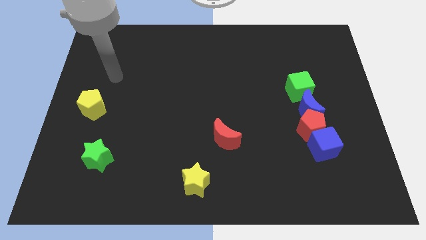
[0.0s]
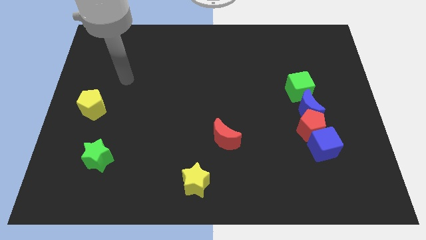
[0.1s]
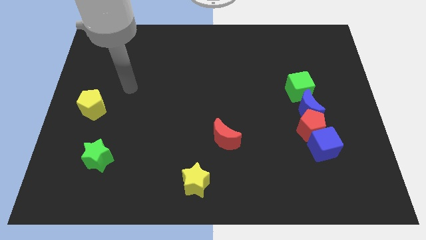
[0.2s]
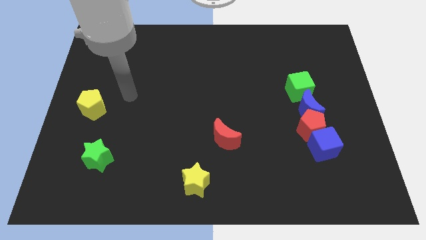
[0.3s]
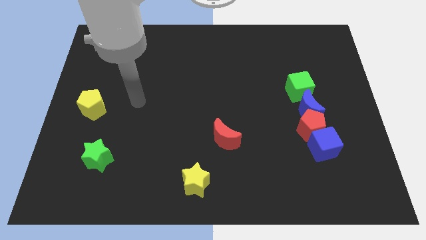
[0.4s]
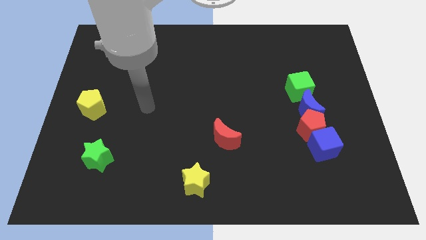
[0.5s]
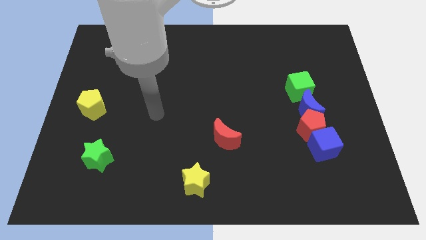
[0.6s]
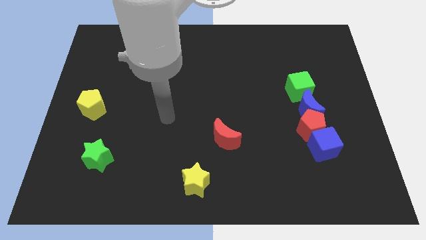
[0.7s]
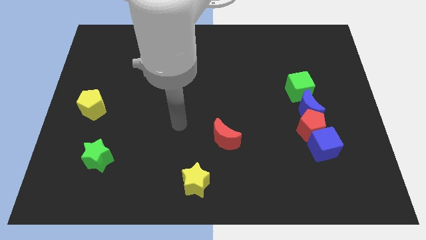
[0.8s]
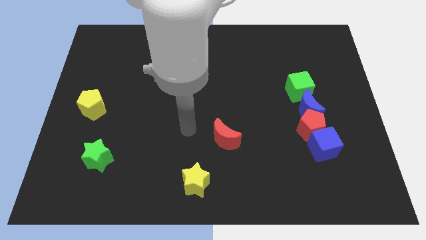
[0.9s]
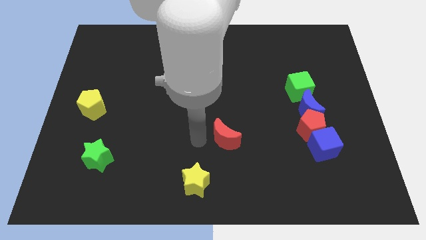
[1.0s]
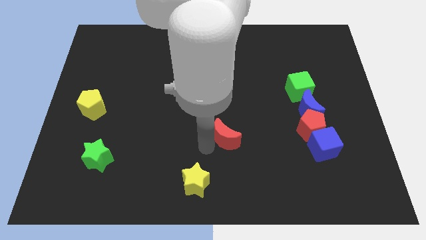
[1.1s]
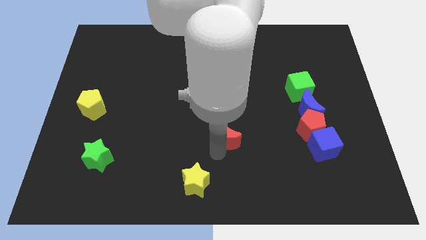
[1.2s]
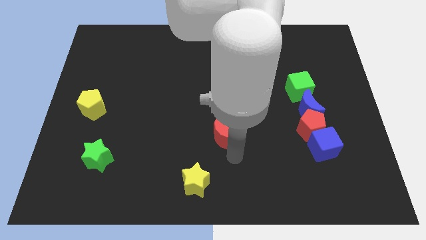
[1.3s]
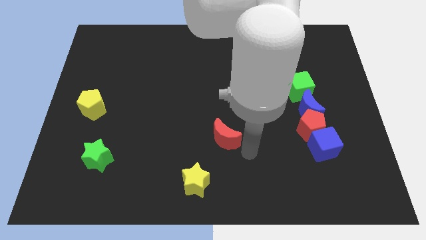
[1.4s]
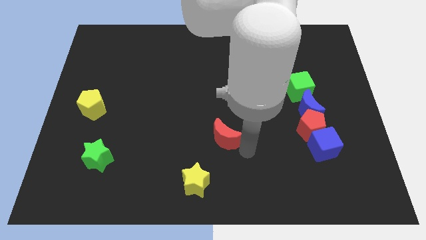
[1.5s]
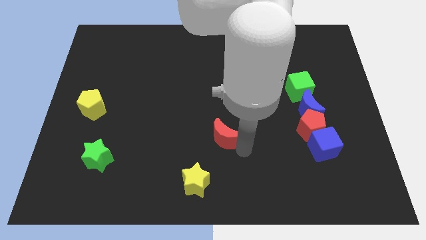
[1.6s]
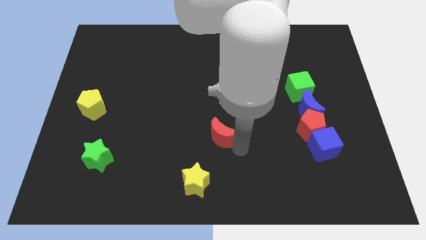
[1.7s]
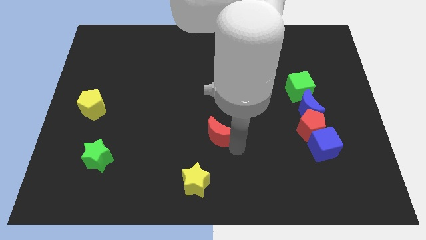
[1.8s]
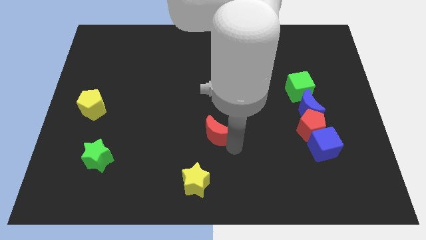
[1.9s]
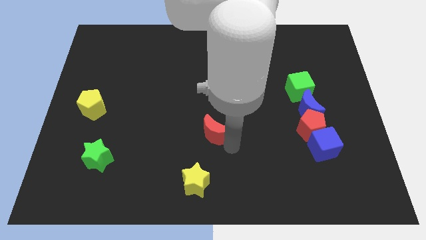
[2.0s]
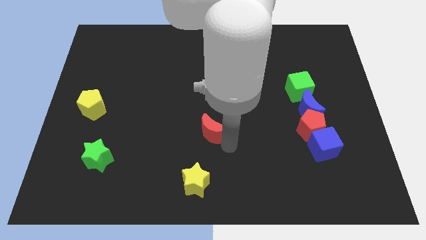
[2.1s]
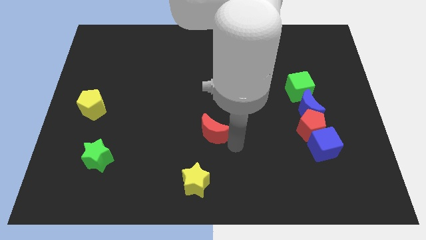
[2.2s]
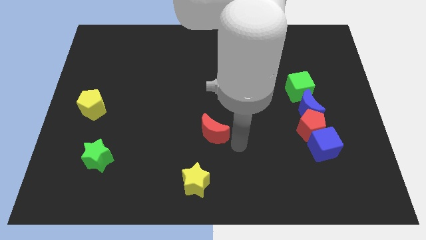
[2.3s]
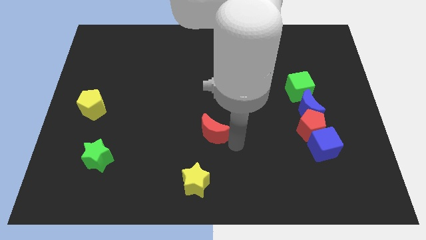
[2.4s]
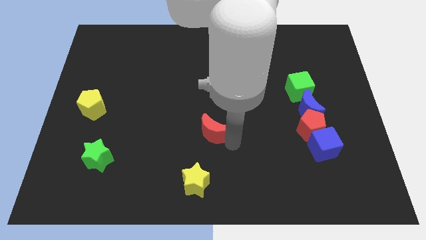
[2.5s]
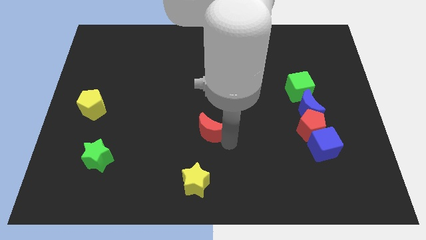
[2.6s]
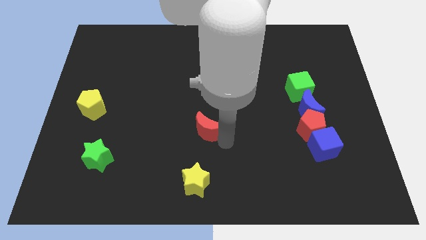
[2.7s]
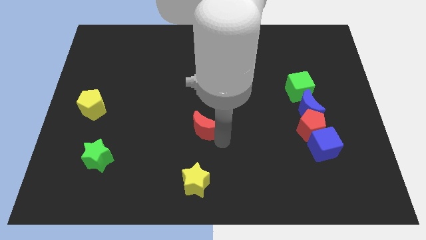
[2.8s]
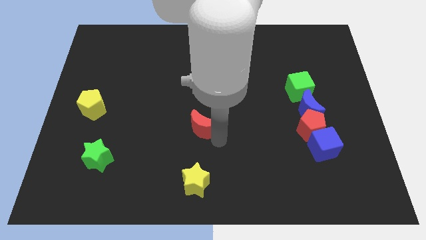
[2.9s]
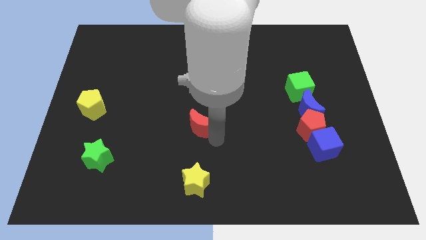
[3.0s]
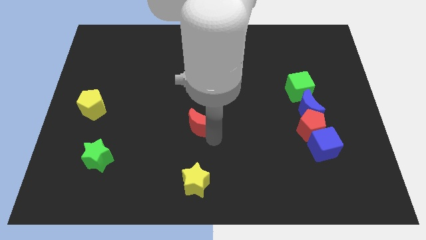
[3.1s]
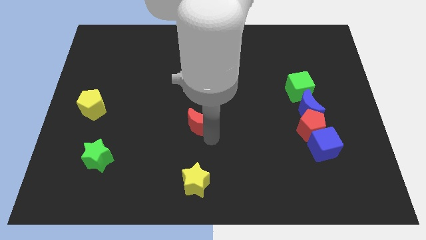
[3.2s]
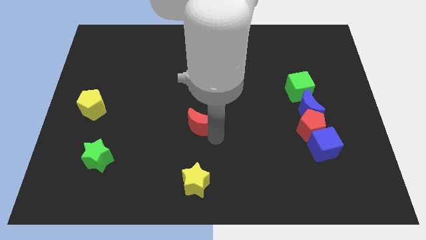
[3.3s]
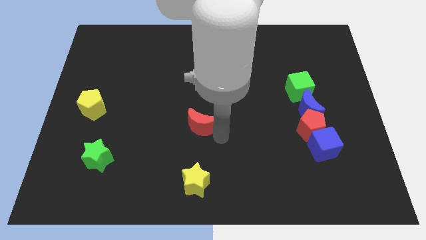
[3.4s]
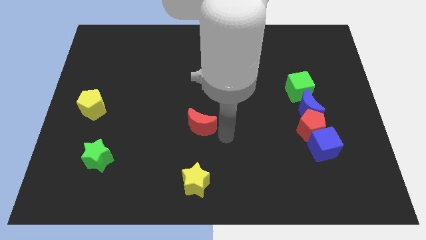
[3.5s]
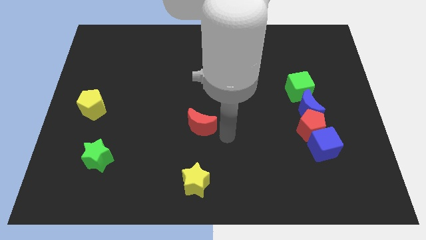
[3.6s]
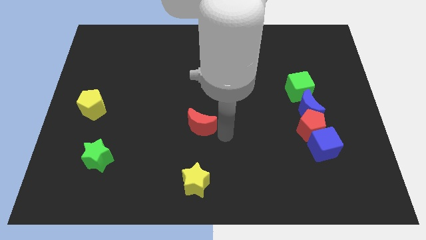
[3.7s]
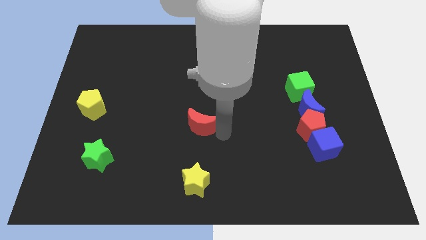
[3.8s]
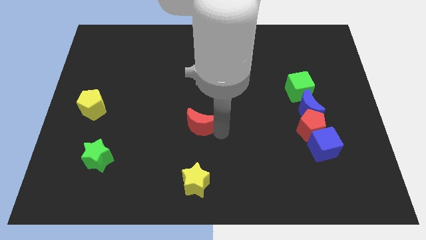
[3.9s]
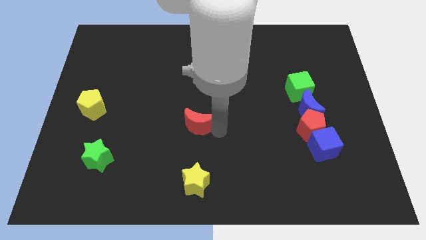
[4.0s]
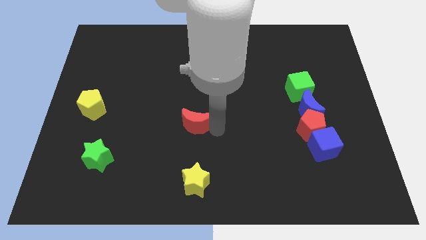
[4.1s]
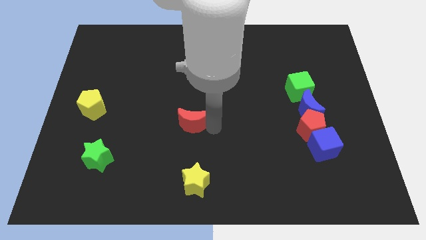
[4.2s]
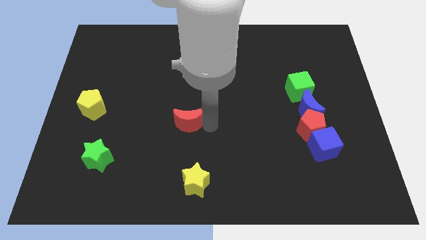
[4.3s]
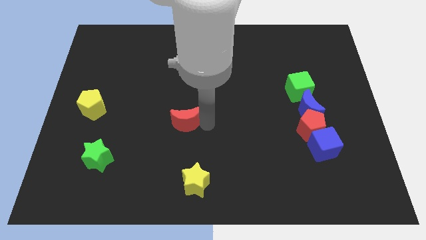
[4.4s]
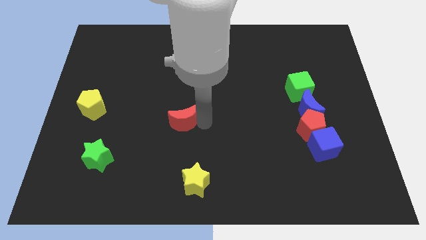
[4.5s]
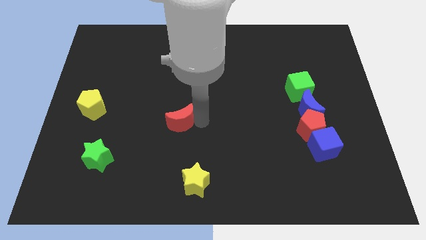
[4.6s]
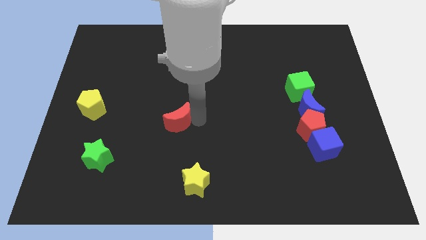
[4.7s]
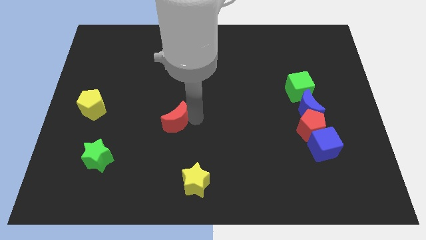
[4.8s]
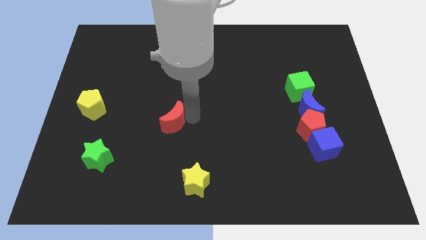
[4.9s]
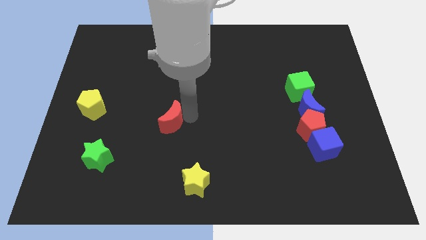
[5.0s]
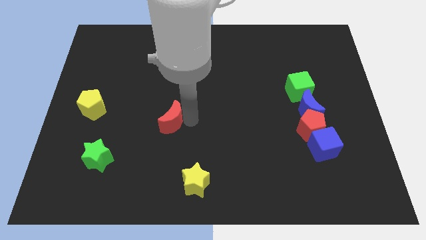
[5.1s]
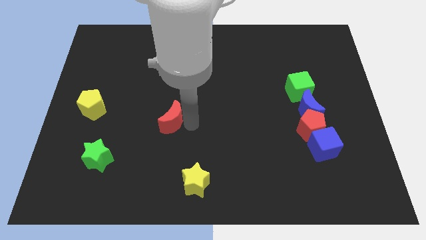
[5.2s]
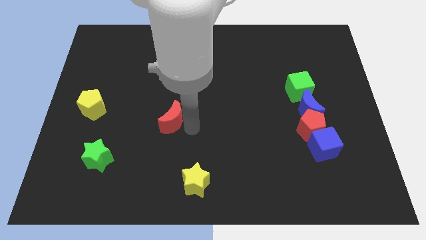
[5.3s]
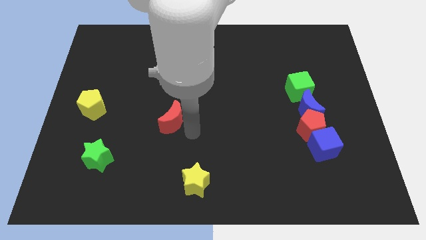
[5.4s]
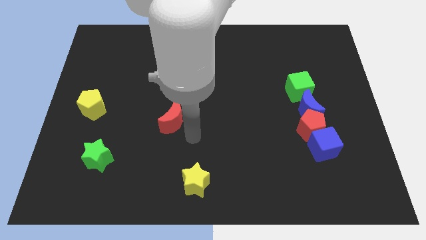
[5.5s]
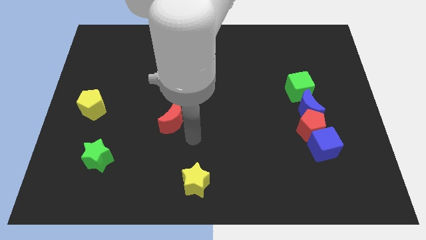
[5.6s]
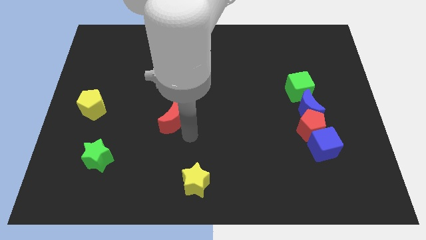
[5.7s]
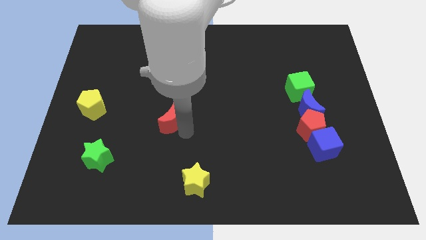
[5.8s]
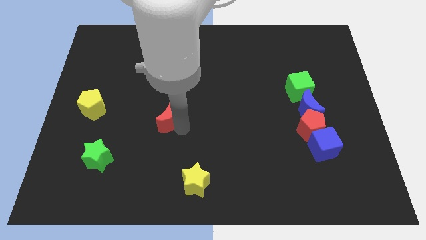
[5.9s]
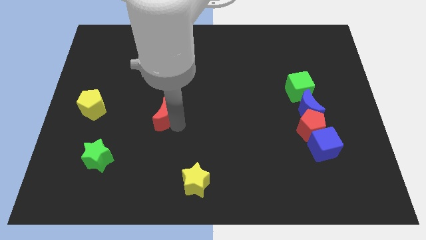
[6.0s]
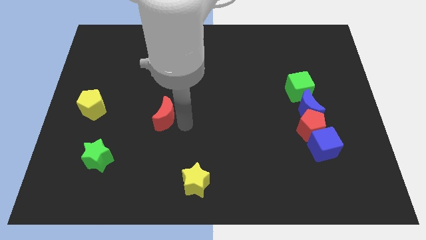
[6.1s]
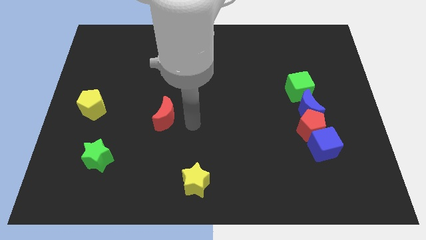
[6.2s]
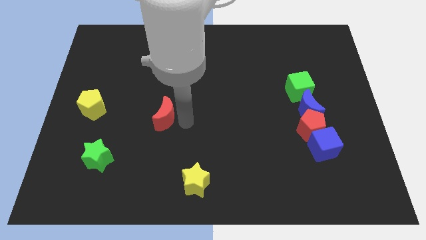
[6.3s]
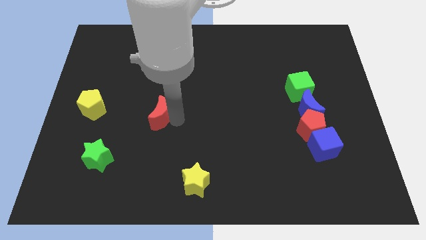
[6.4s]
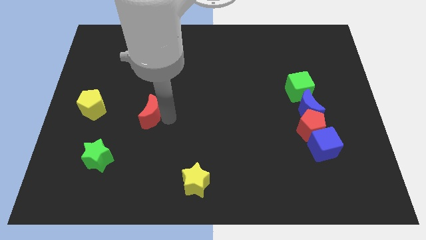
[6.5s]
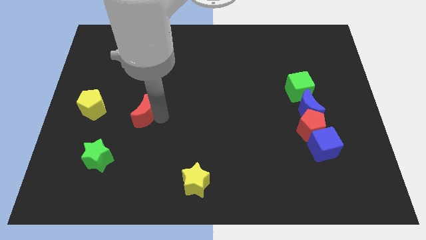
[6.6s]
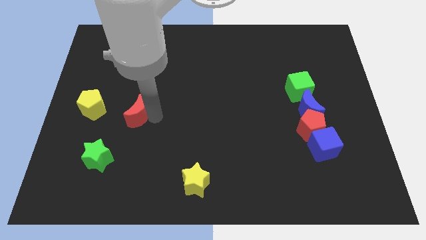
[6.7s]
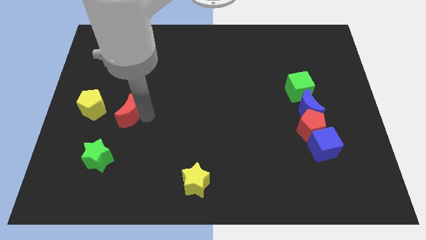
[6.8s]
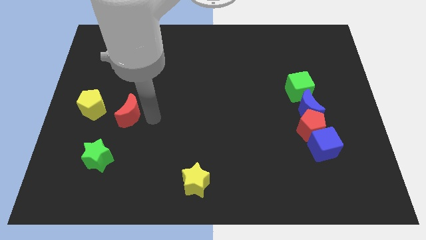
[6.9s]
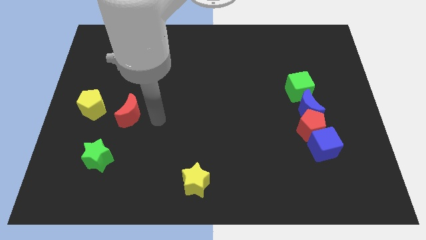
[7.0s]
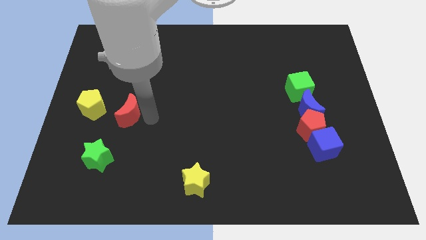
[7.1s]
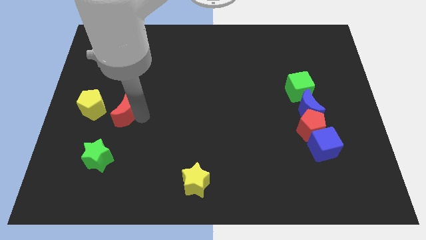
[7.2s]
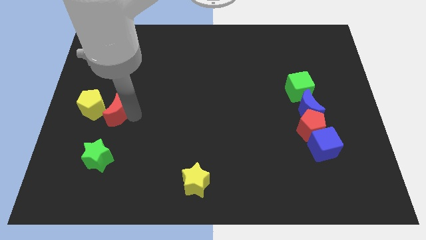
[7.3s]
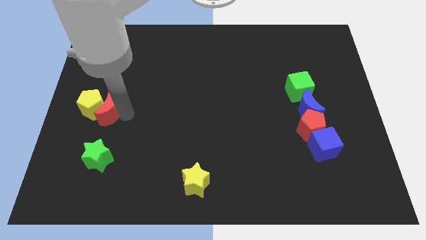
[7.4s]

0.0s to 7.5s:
move the red moon towards the yellow pentagon

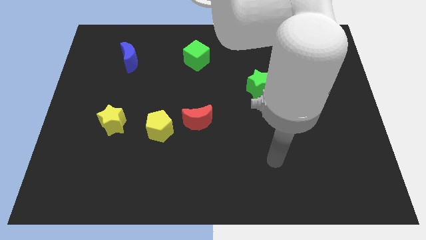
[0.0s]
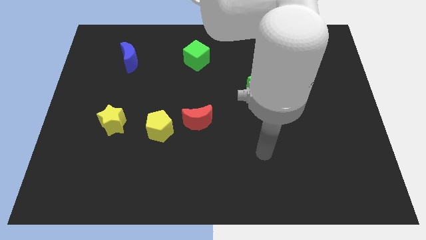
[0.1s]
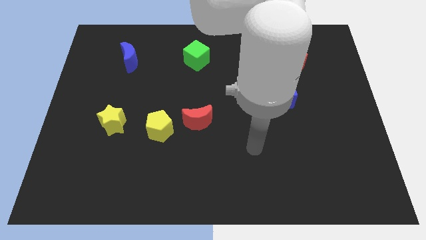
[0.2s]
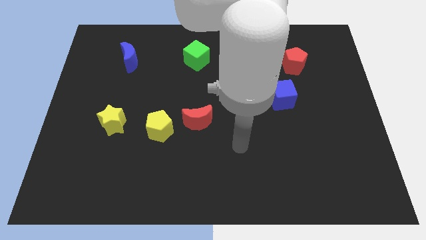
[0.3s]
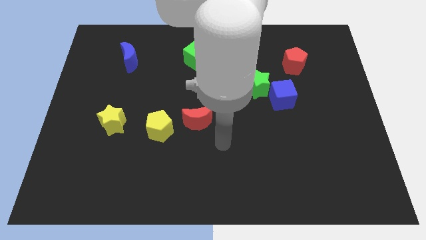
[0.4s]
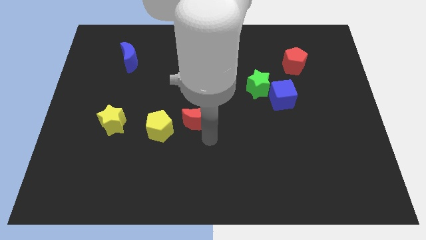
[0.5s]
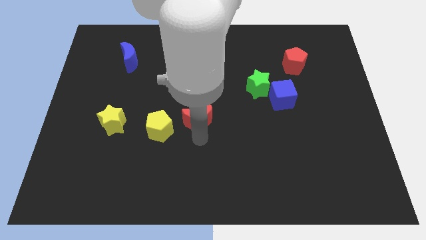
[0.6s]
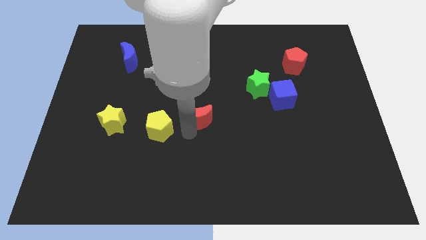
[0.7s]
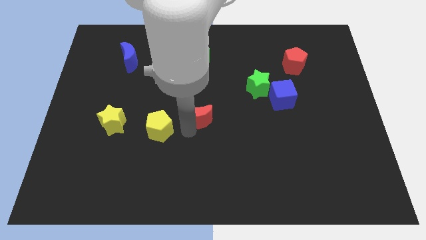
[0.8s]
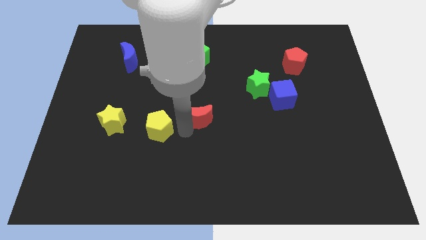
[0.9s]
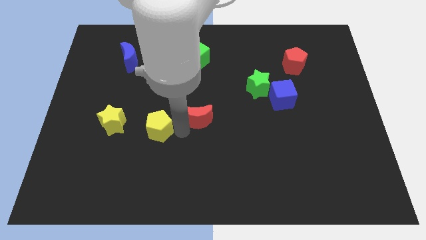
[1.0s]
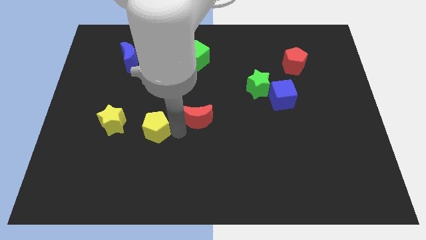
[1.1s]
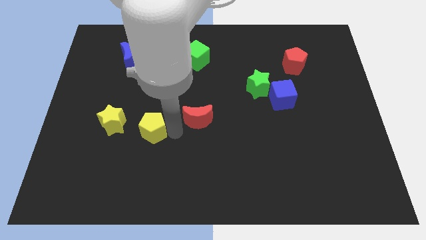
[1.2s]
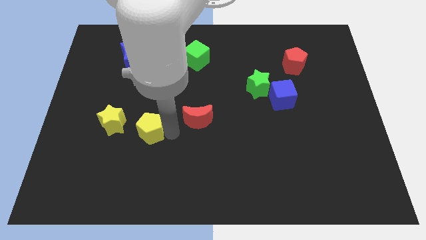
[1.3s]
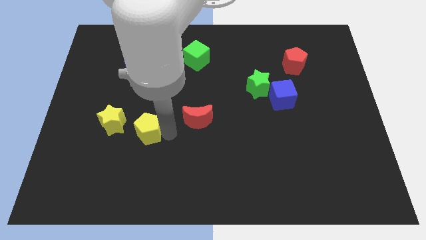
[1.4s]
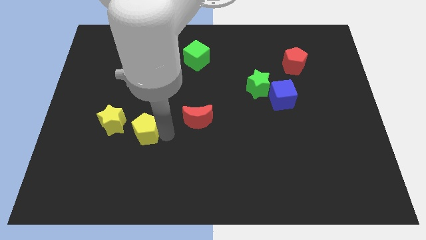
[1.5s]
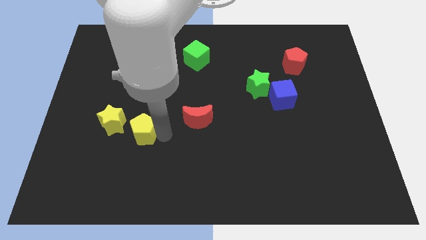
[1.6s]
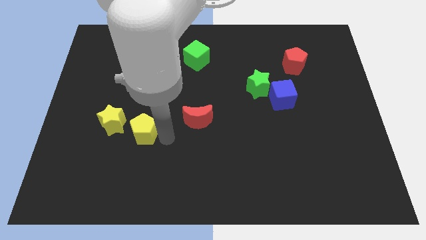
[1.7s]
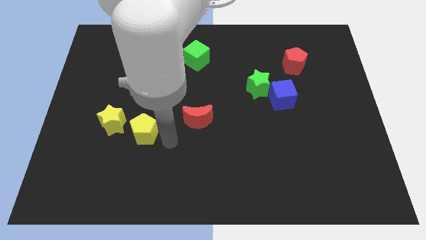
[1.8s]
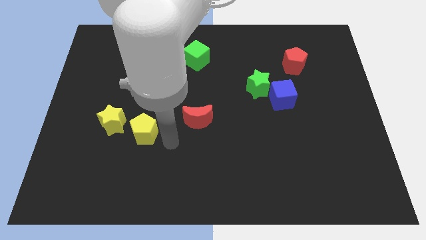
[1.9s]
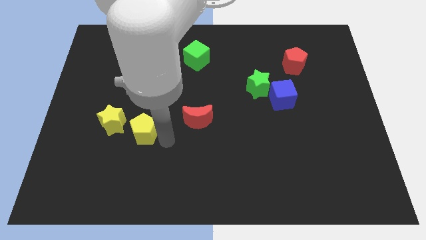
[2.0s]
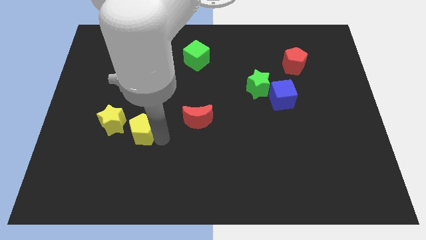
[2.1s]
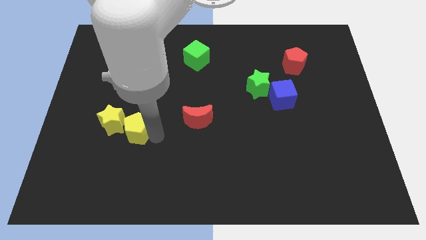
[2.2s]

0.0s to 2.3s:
move the yellow pentagon towards the yellow star
